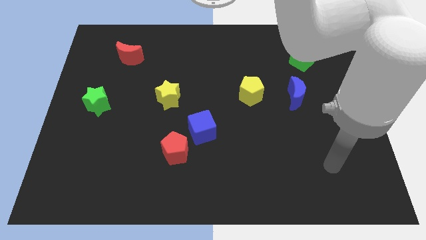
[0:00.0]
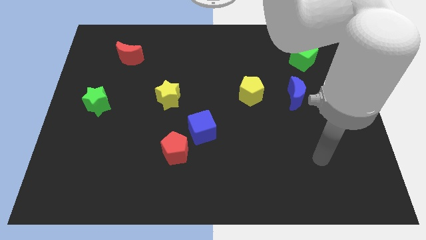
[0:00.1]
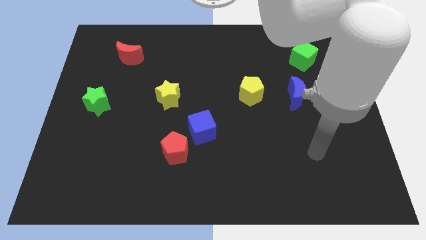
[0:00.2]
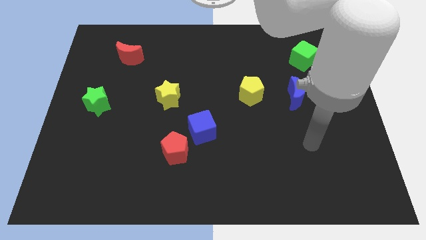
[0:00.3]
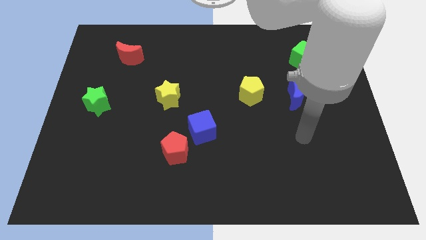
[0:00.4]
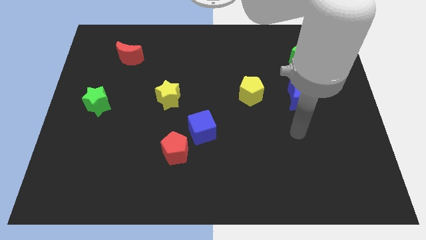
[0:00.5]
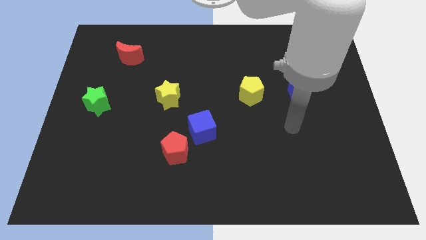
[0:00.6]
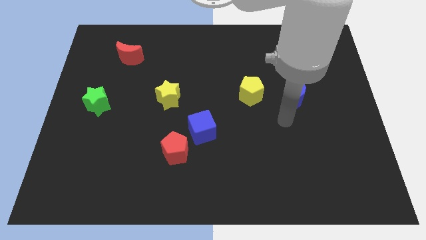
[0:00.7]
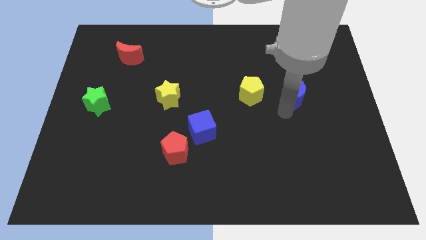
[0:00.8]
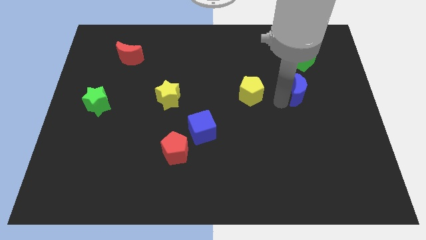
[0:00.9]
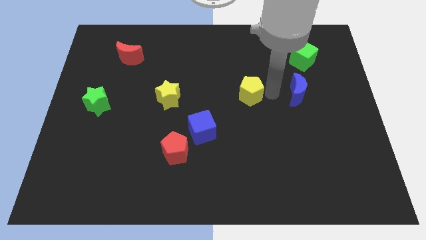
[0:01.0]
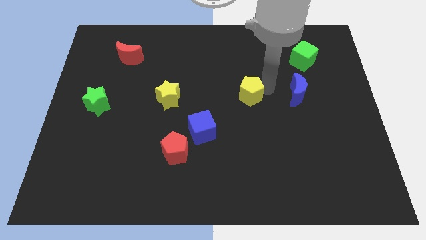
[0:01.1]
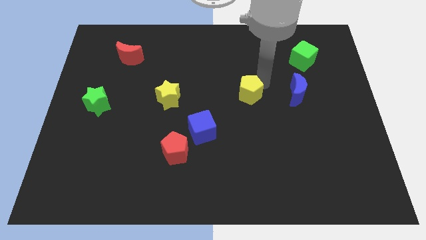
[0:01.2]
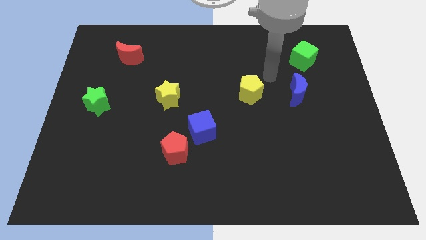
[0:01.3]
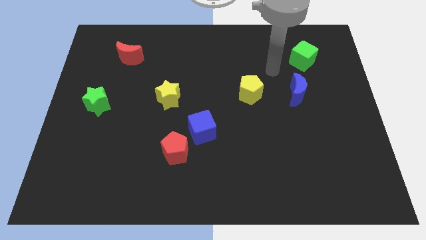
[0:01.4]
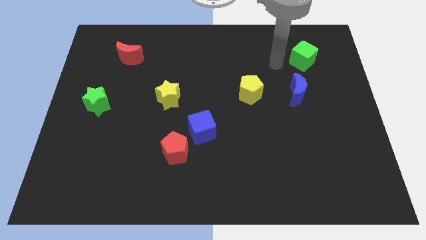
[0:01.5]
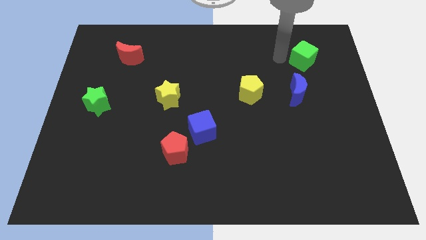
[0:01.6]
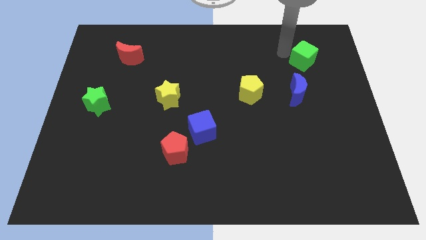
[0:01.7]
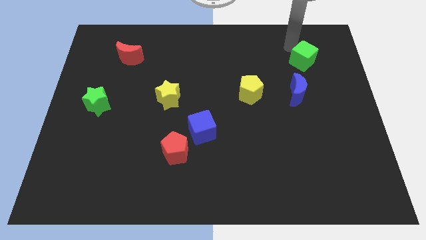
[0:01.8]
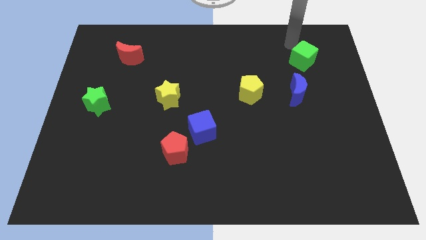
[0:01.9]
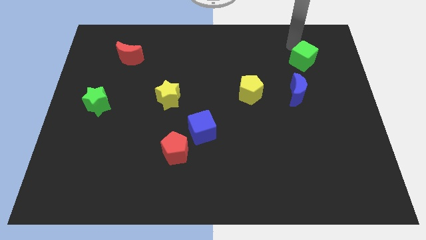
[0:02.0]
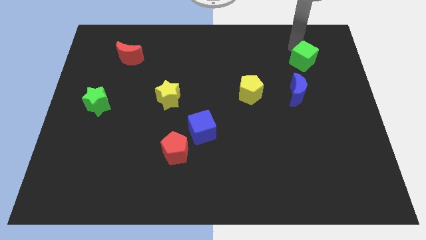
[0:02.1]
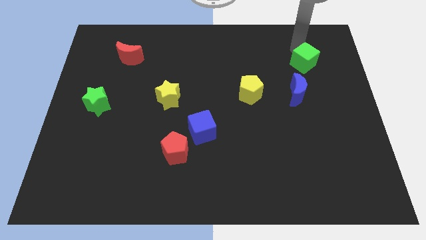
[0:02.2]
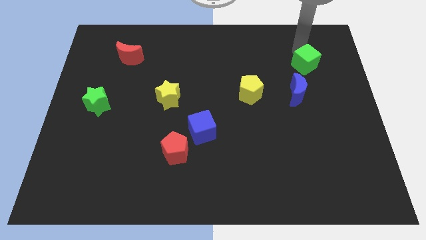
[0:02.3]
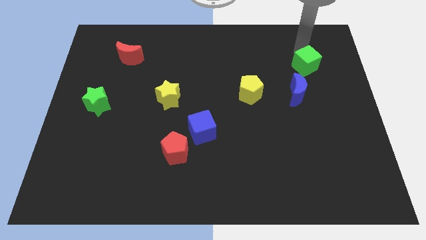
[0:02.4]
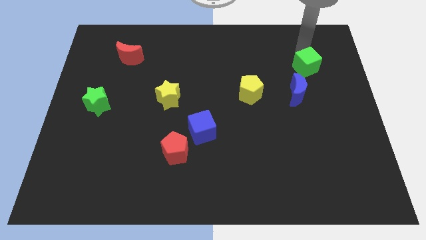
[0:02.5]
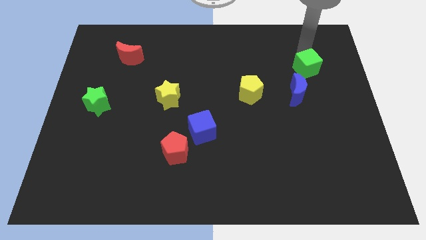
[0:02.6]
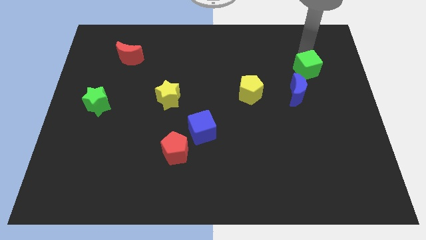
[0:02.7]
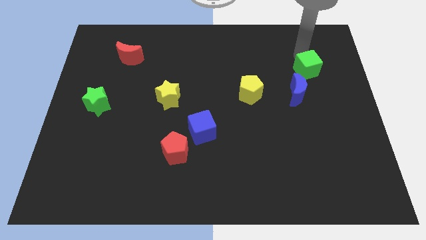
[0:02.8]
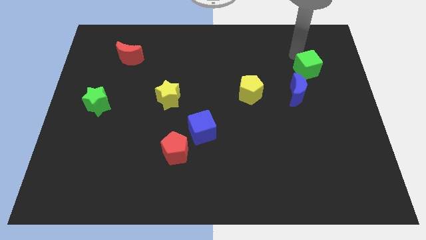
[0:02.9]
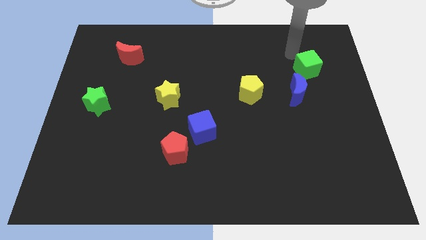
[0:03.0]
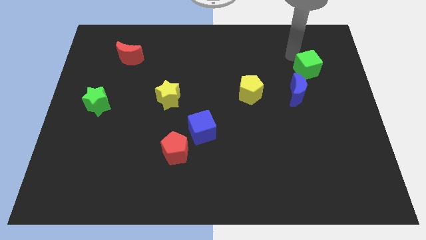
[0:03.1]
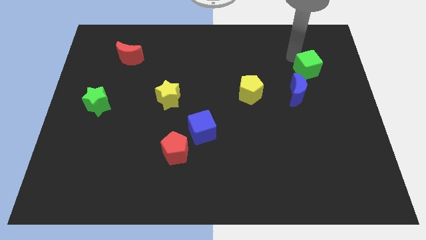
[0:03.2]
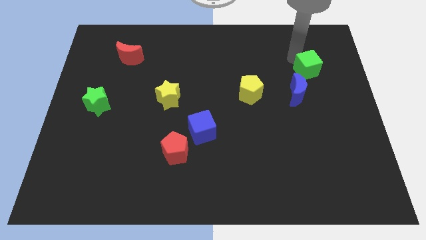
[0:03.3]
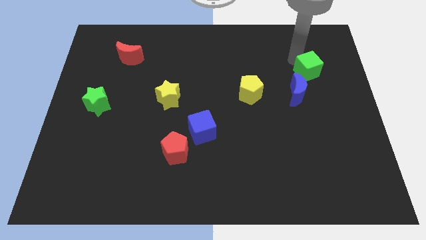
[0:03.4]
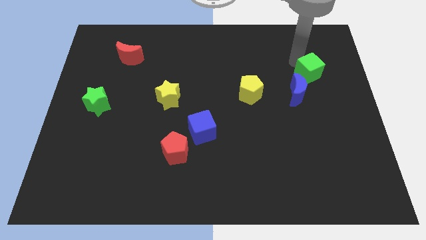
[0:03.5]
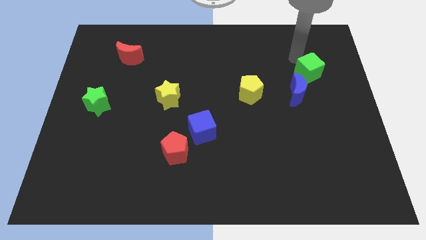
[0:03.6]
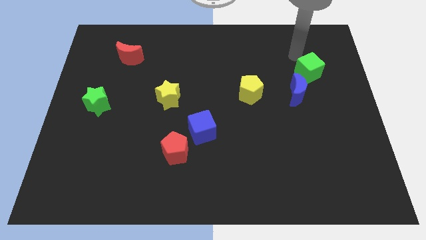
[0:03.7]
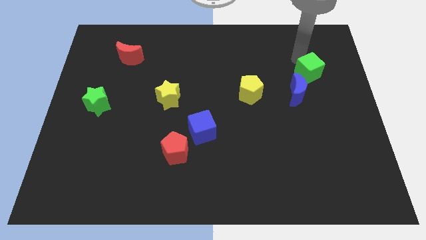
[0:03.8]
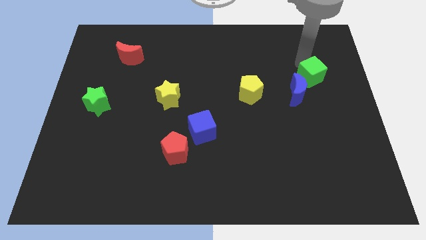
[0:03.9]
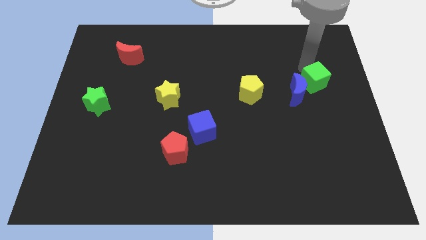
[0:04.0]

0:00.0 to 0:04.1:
slightly move the green cube down

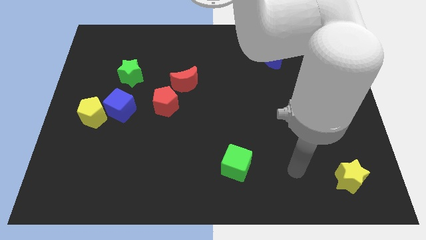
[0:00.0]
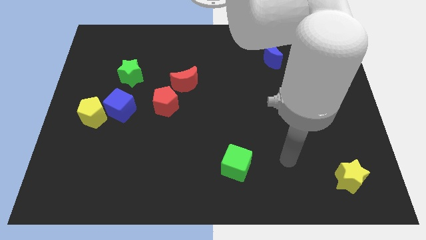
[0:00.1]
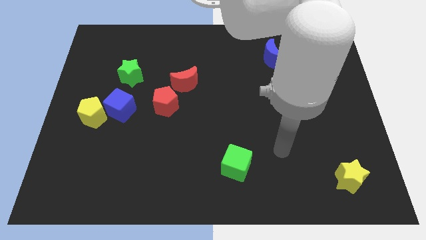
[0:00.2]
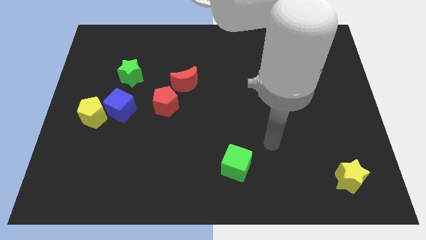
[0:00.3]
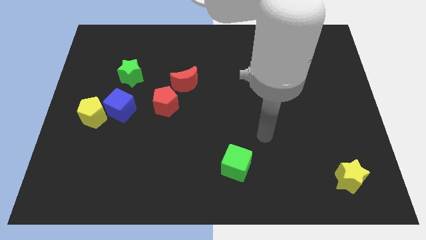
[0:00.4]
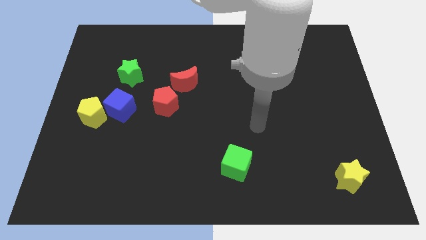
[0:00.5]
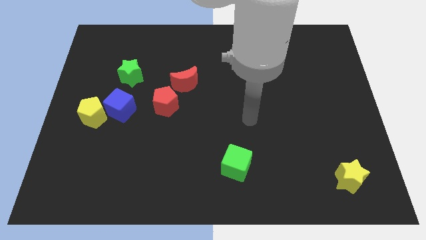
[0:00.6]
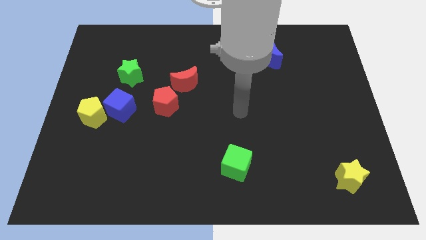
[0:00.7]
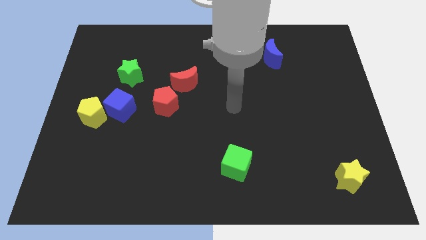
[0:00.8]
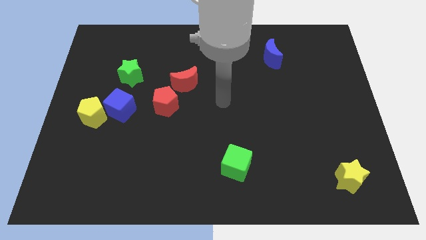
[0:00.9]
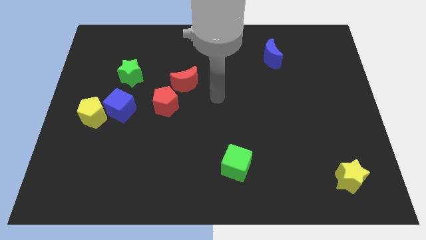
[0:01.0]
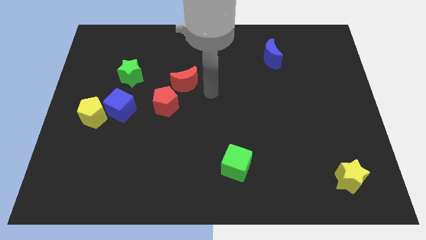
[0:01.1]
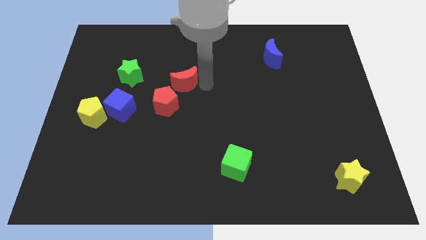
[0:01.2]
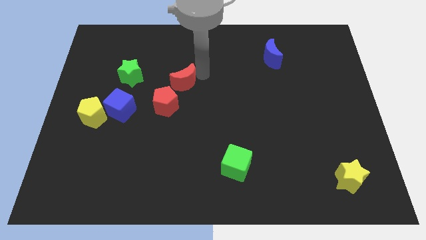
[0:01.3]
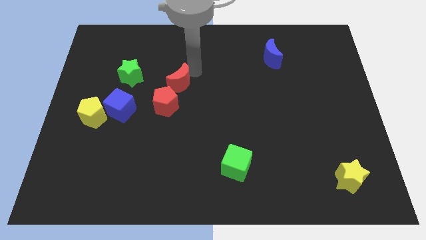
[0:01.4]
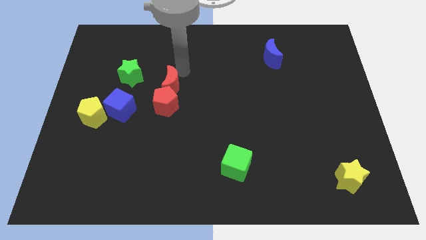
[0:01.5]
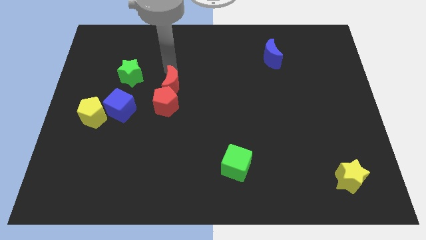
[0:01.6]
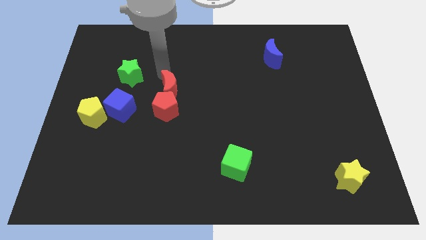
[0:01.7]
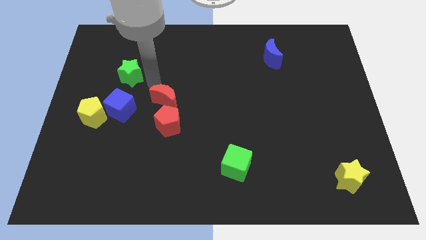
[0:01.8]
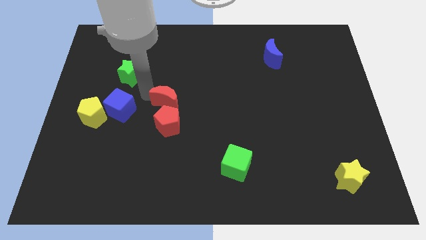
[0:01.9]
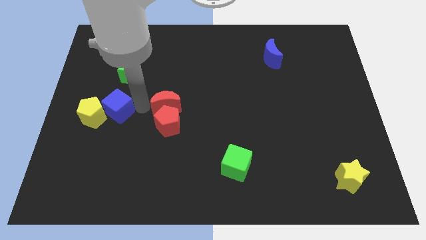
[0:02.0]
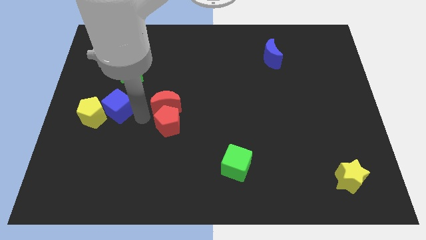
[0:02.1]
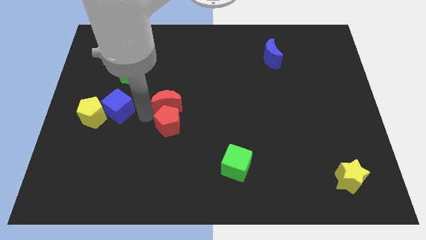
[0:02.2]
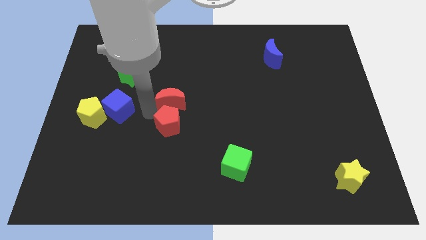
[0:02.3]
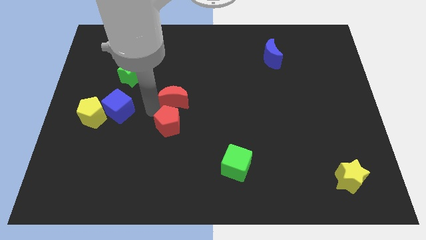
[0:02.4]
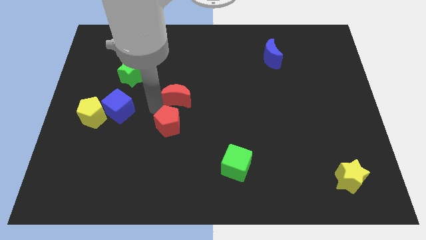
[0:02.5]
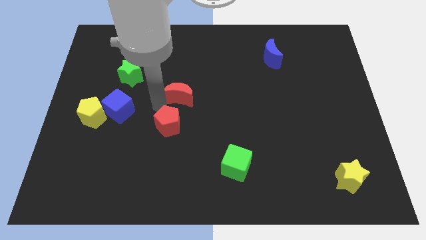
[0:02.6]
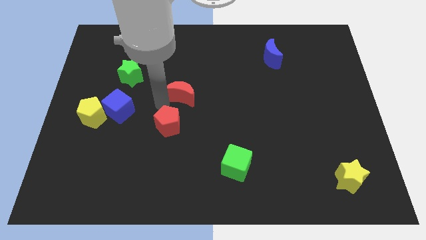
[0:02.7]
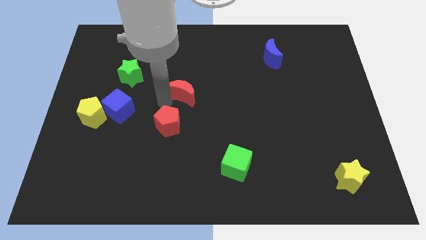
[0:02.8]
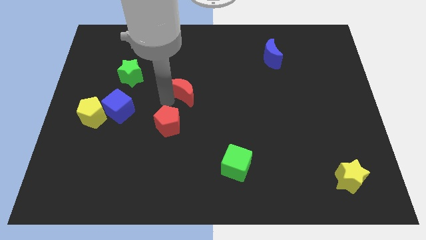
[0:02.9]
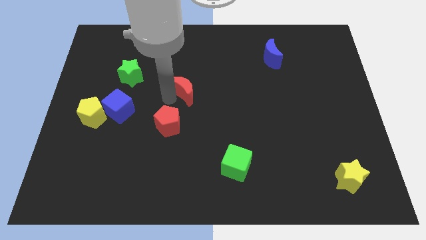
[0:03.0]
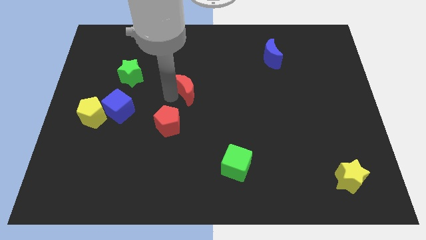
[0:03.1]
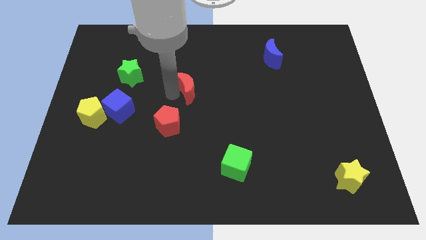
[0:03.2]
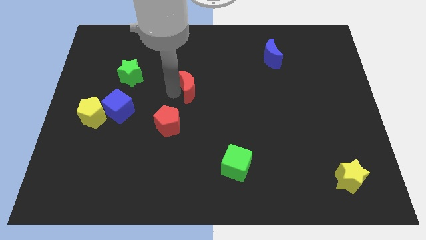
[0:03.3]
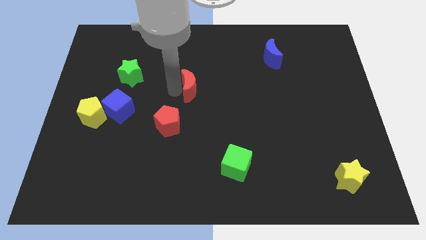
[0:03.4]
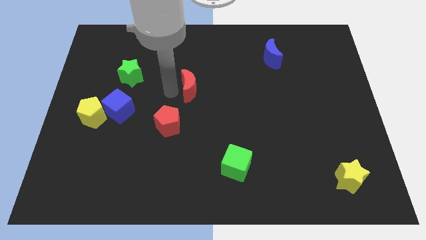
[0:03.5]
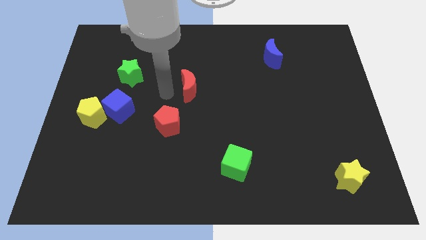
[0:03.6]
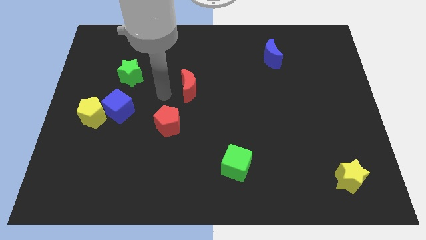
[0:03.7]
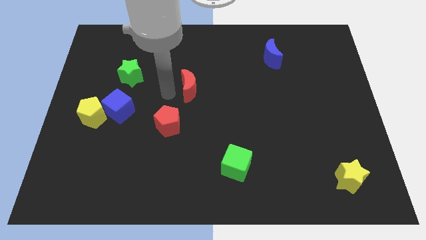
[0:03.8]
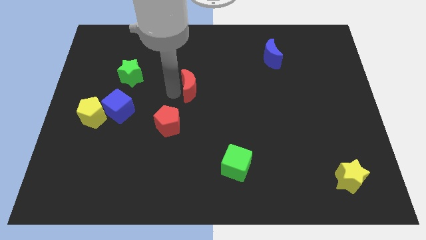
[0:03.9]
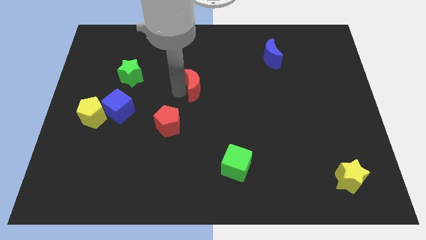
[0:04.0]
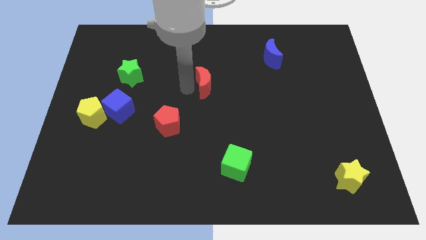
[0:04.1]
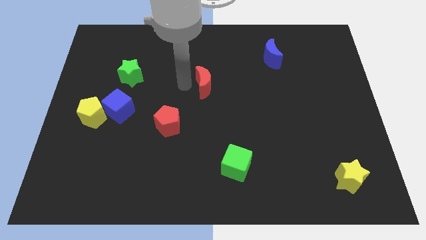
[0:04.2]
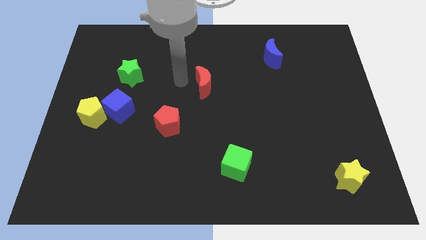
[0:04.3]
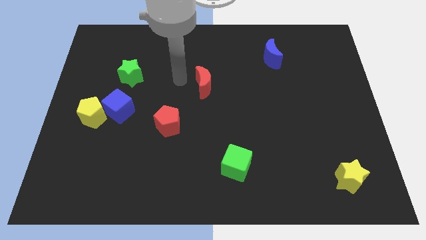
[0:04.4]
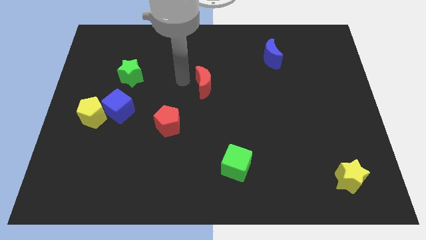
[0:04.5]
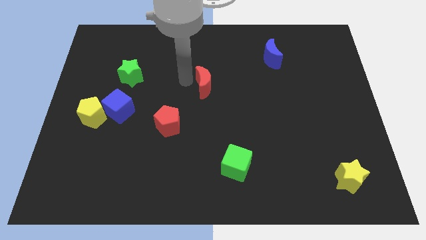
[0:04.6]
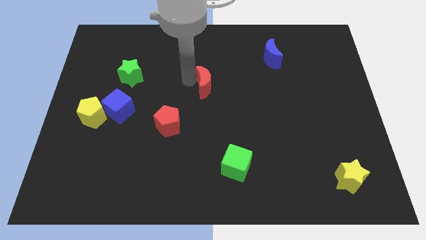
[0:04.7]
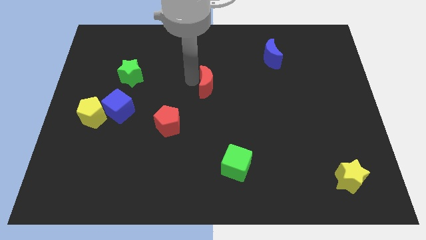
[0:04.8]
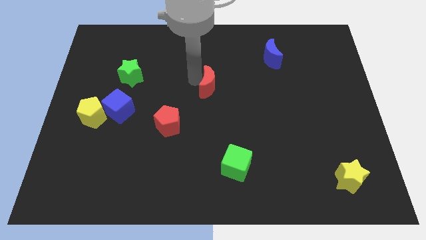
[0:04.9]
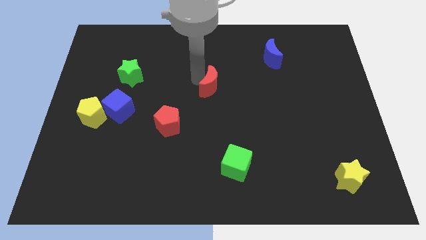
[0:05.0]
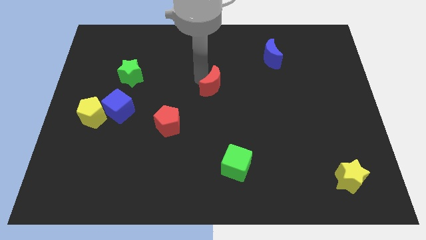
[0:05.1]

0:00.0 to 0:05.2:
move the red moon a little bit to the right
